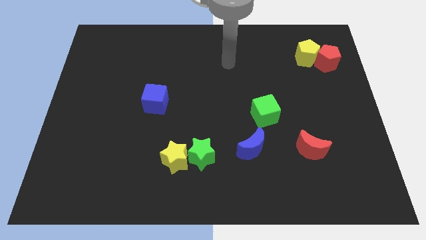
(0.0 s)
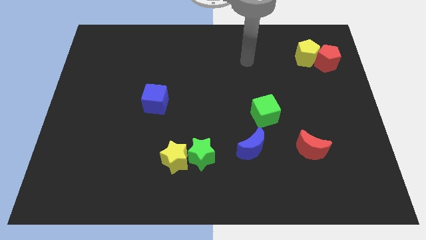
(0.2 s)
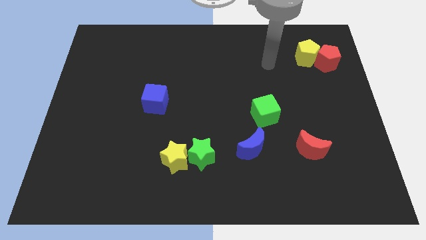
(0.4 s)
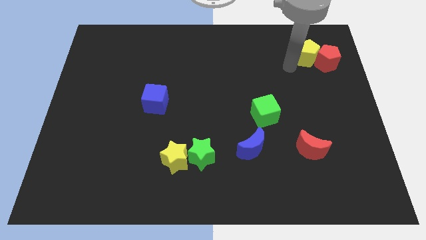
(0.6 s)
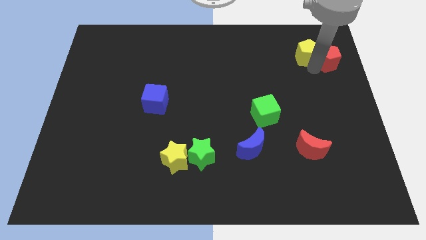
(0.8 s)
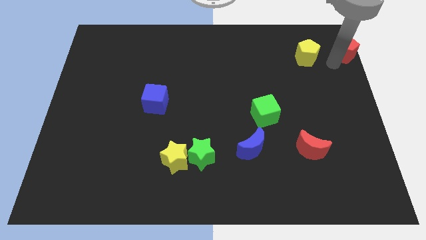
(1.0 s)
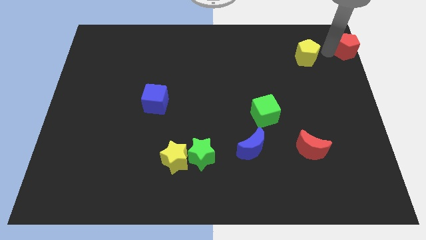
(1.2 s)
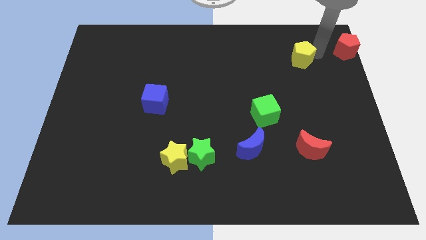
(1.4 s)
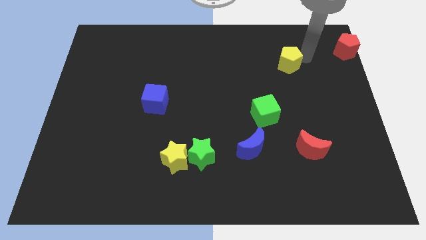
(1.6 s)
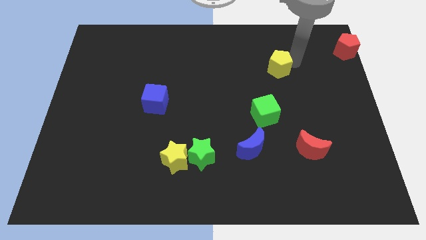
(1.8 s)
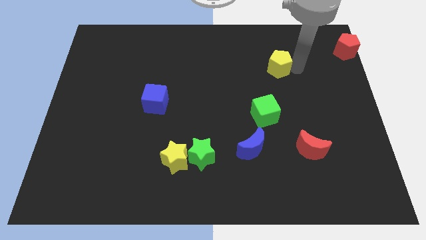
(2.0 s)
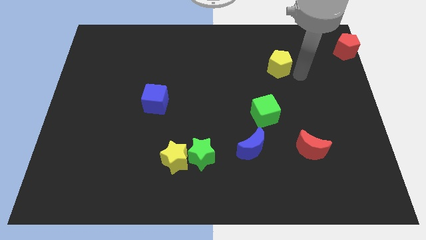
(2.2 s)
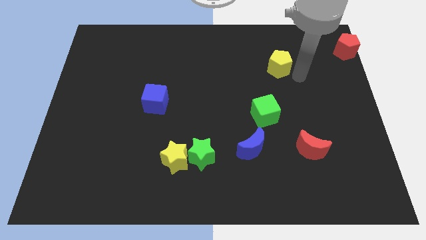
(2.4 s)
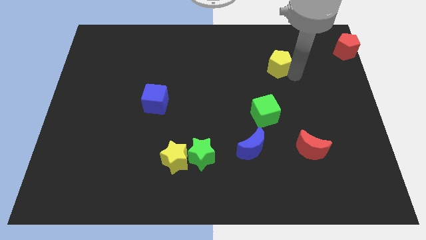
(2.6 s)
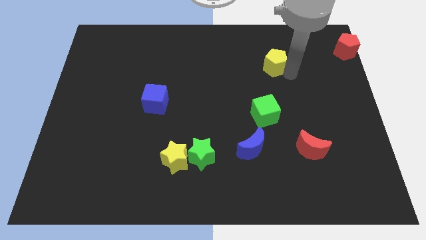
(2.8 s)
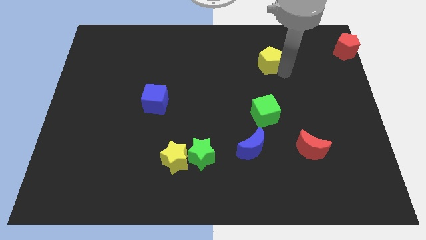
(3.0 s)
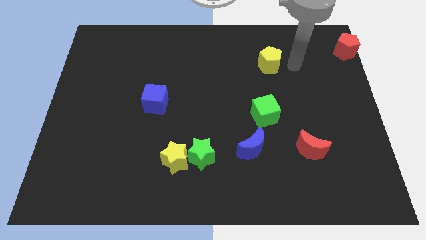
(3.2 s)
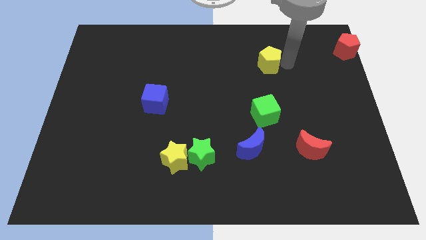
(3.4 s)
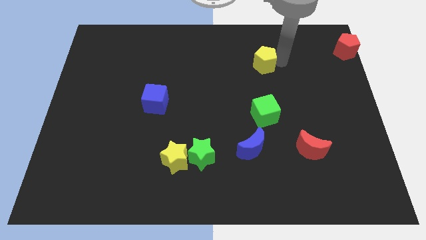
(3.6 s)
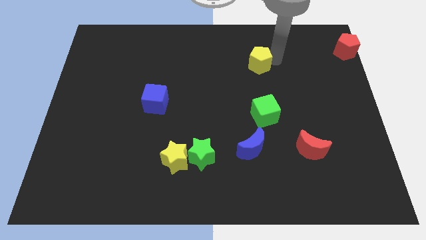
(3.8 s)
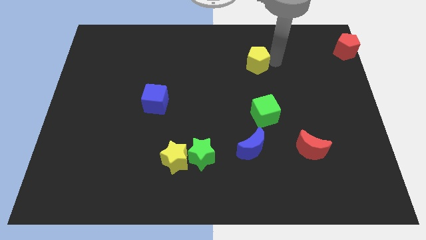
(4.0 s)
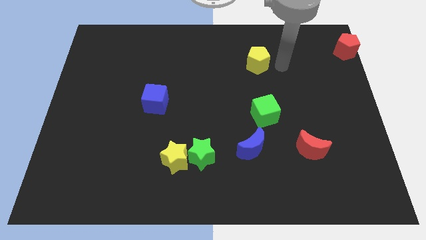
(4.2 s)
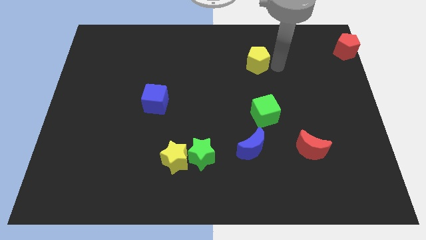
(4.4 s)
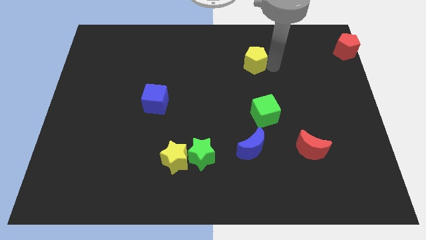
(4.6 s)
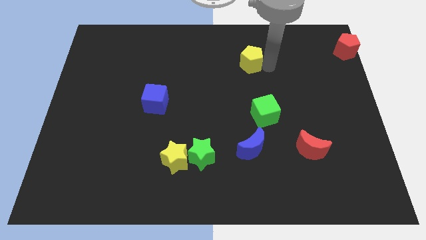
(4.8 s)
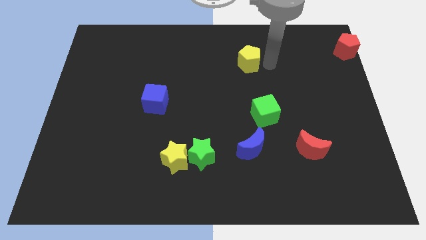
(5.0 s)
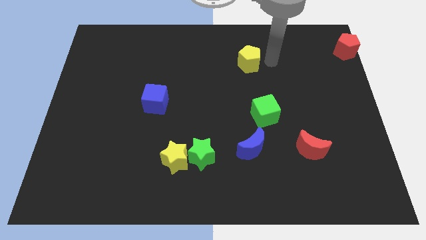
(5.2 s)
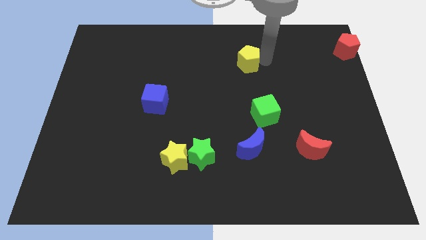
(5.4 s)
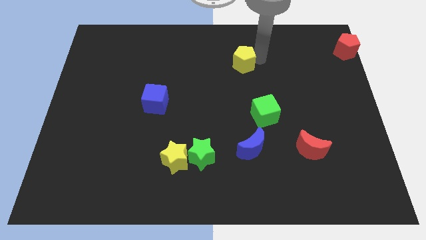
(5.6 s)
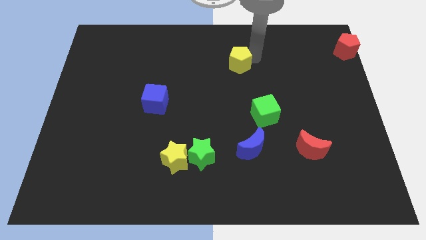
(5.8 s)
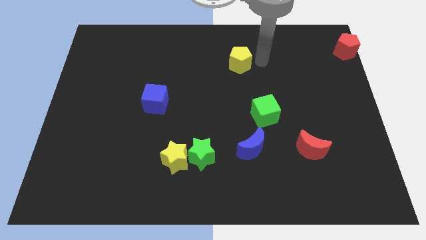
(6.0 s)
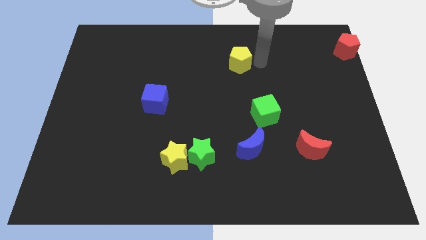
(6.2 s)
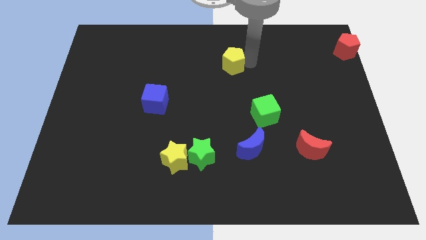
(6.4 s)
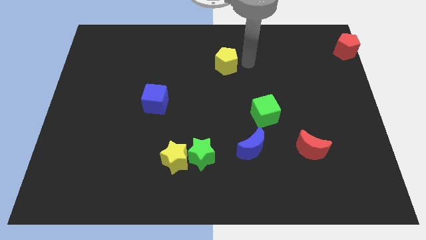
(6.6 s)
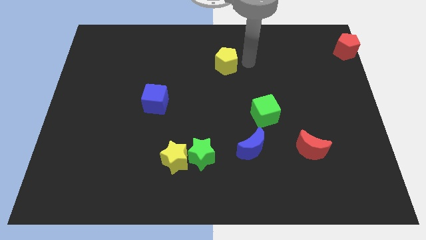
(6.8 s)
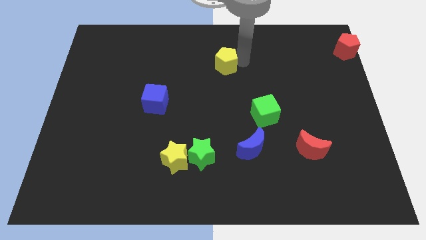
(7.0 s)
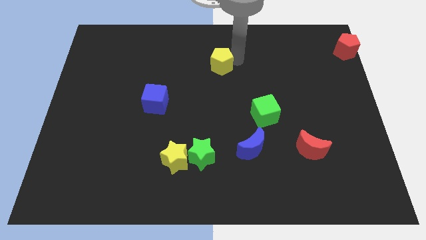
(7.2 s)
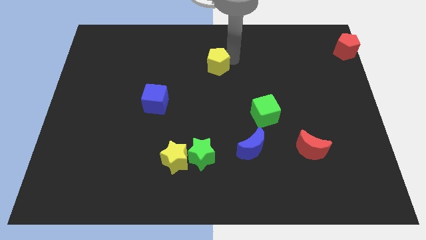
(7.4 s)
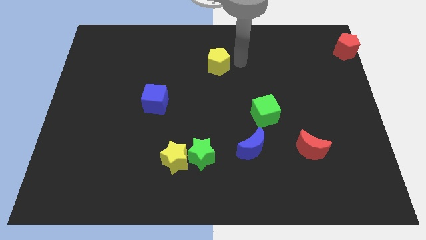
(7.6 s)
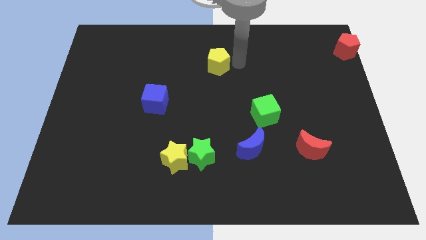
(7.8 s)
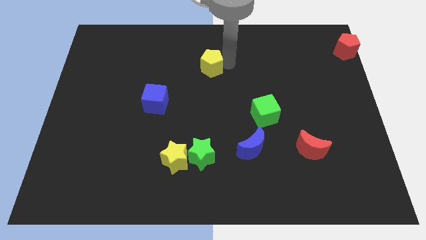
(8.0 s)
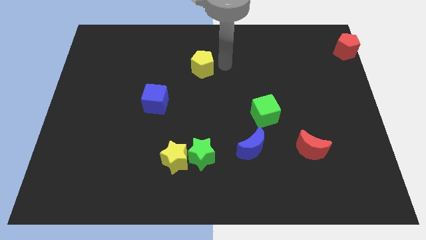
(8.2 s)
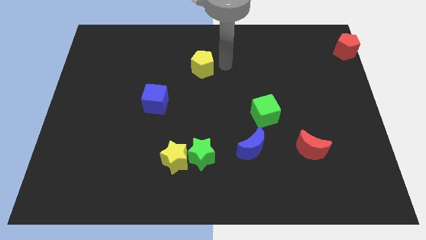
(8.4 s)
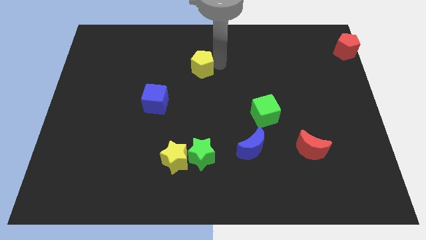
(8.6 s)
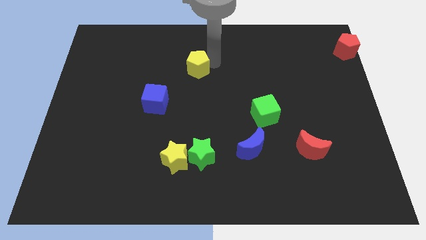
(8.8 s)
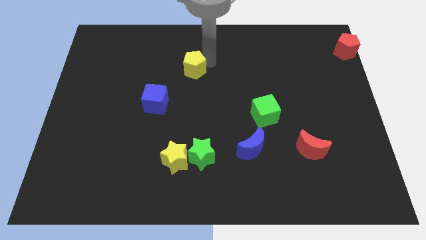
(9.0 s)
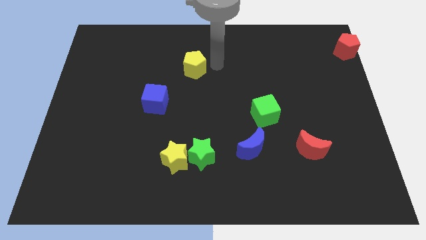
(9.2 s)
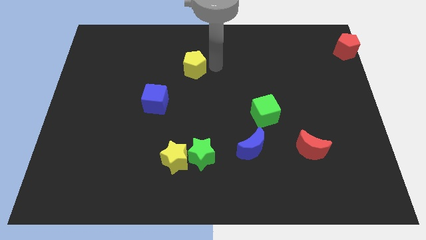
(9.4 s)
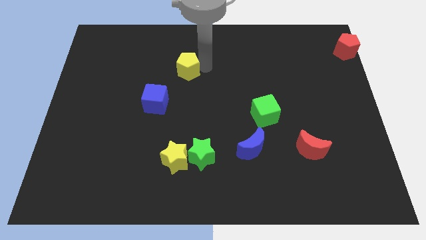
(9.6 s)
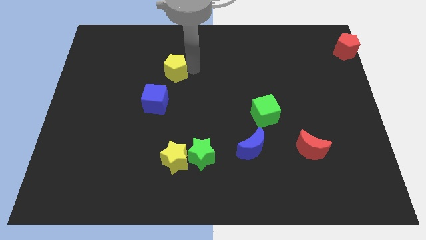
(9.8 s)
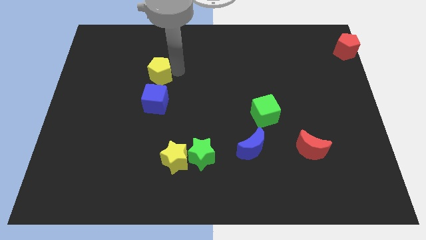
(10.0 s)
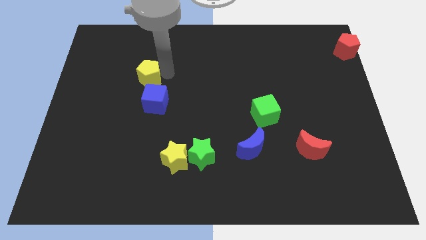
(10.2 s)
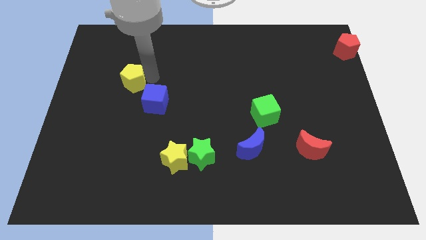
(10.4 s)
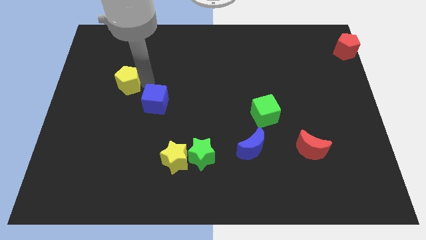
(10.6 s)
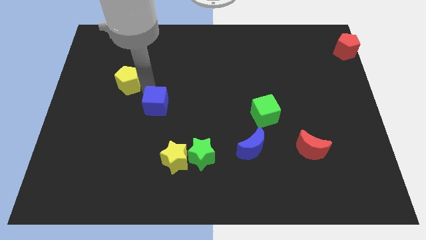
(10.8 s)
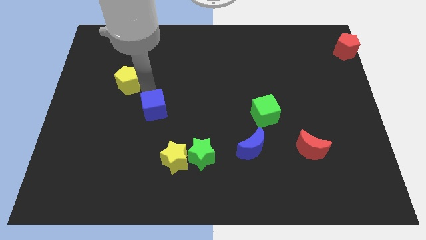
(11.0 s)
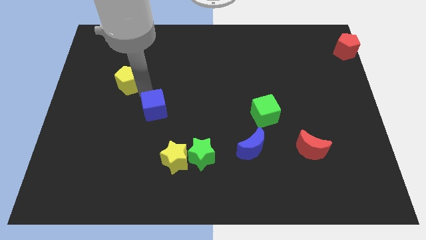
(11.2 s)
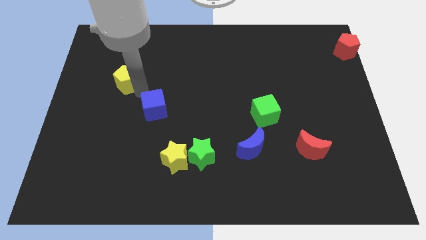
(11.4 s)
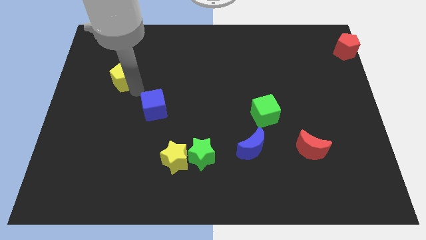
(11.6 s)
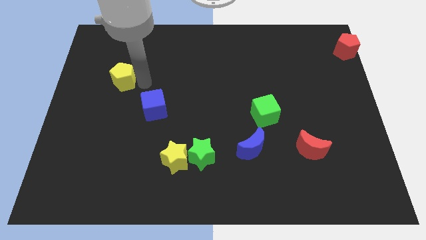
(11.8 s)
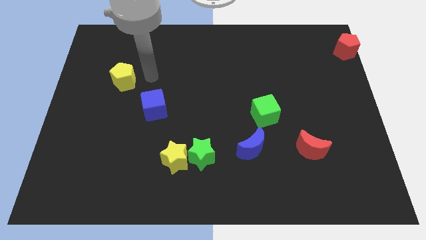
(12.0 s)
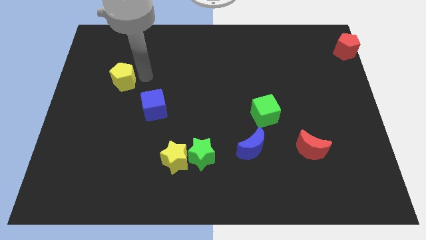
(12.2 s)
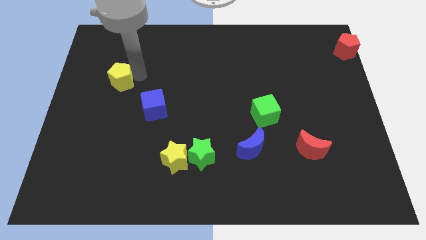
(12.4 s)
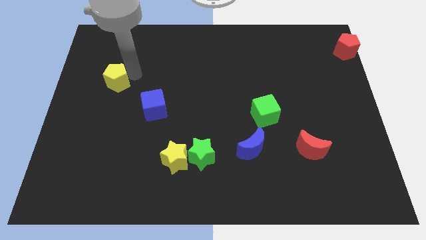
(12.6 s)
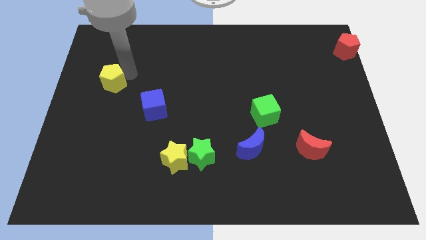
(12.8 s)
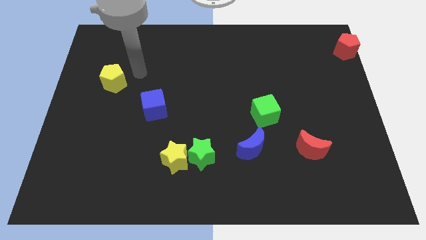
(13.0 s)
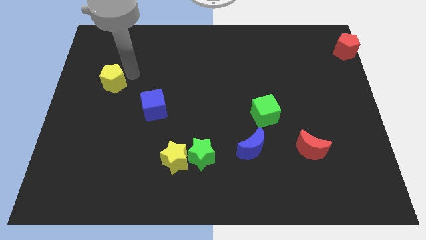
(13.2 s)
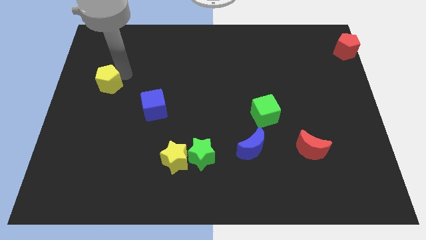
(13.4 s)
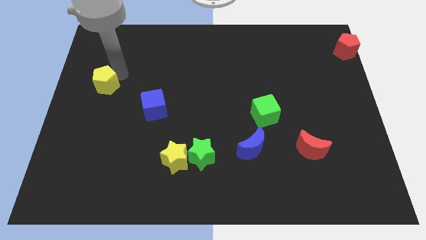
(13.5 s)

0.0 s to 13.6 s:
push the yellow pentagon to the left side

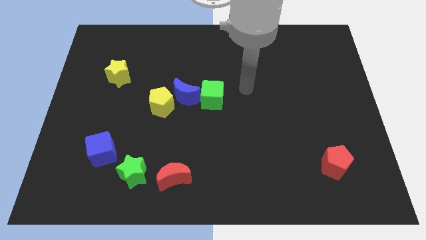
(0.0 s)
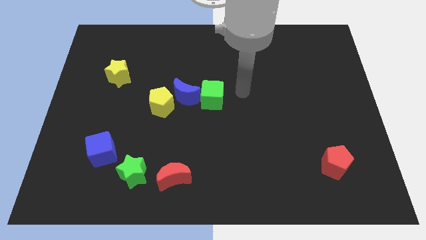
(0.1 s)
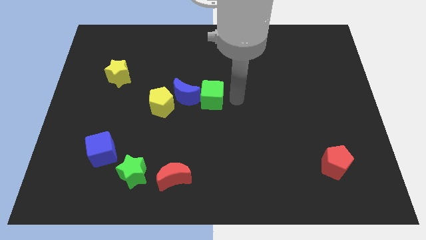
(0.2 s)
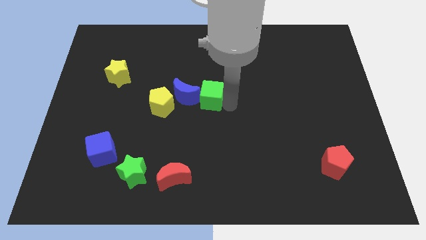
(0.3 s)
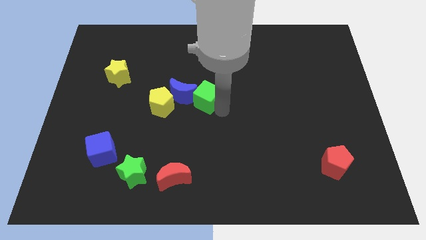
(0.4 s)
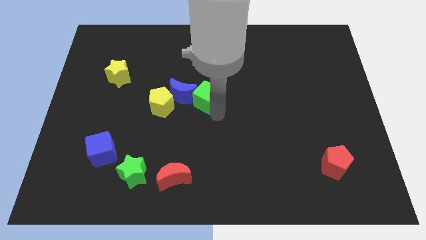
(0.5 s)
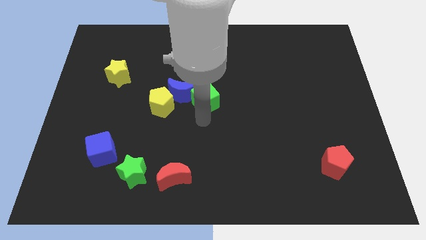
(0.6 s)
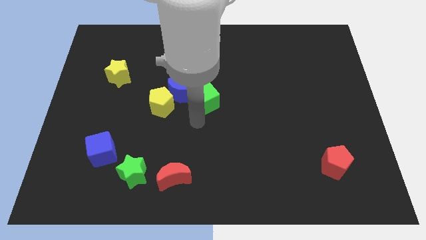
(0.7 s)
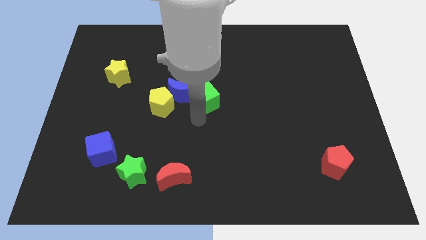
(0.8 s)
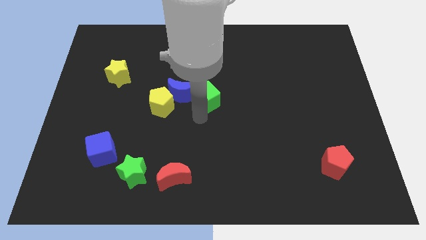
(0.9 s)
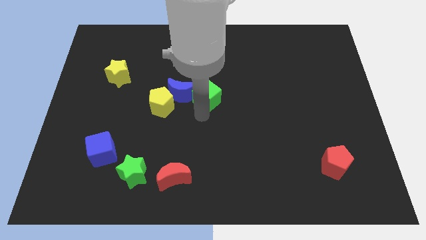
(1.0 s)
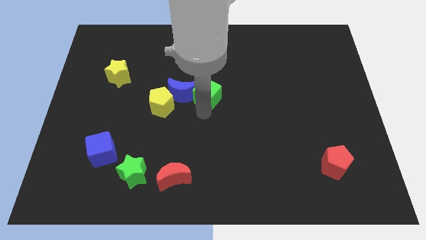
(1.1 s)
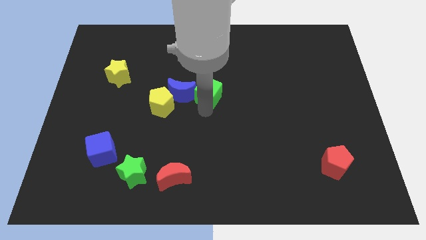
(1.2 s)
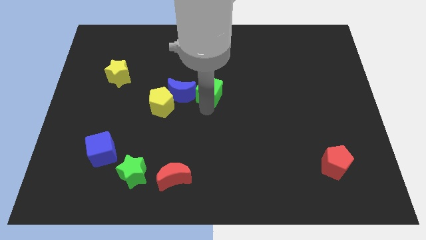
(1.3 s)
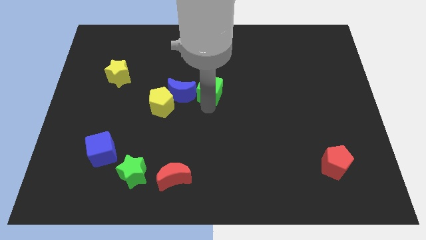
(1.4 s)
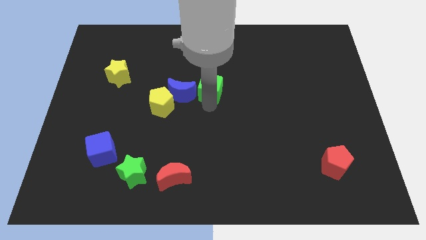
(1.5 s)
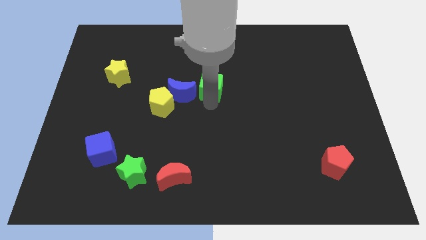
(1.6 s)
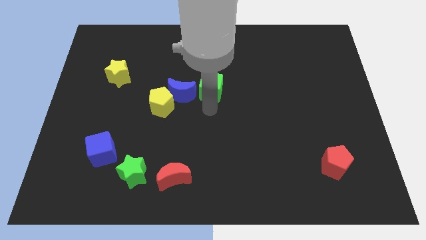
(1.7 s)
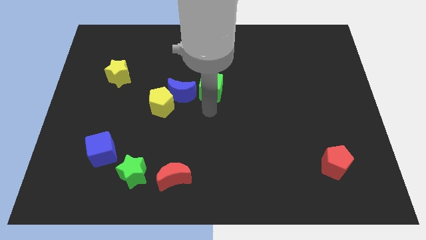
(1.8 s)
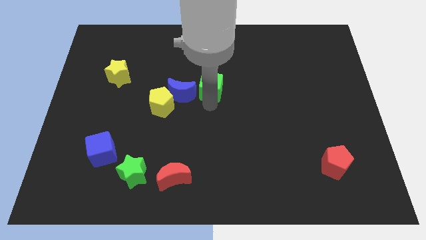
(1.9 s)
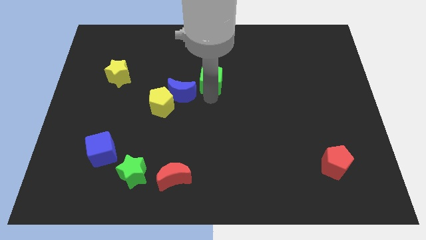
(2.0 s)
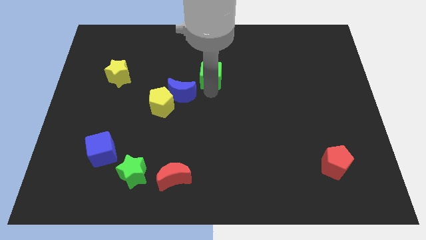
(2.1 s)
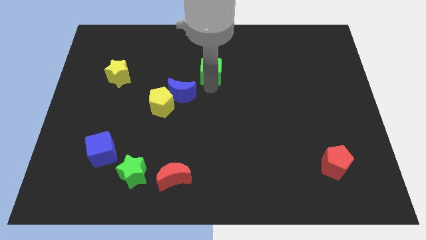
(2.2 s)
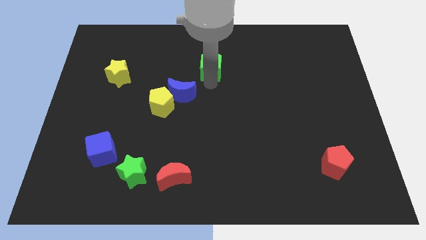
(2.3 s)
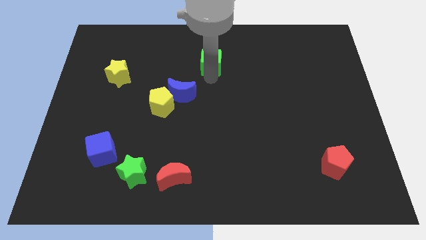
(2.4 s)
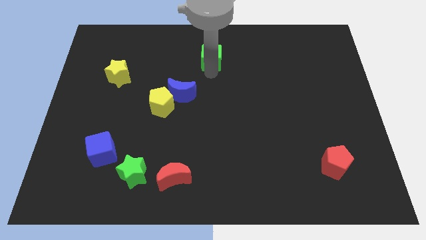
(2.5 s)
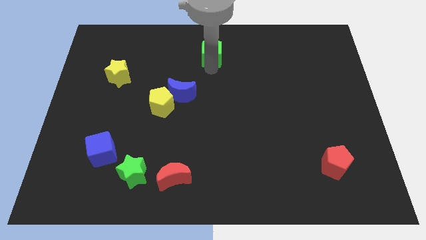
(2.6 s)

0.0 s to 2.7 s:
slide the green cube to the top
